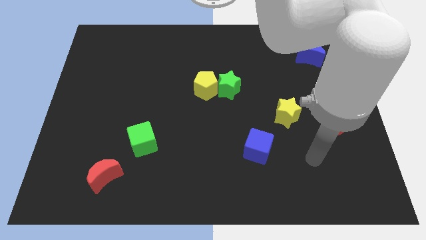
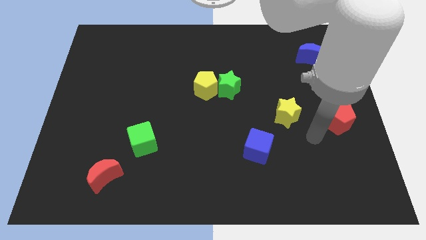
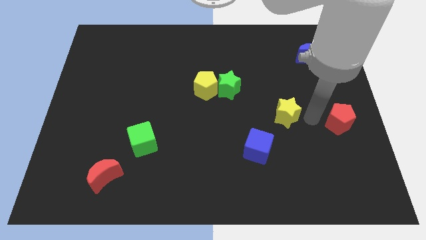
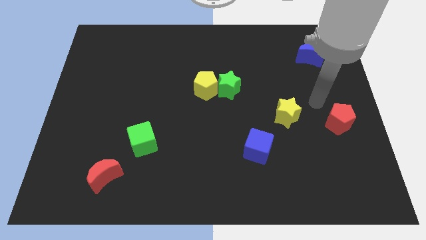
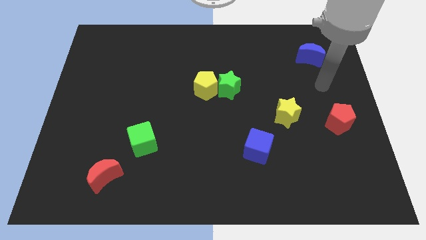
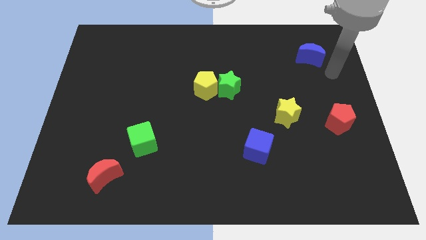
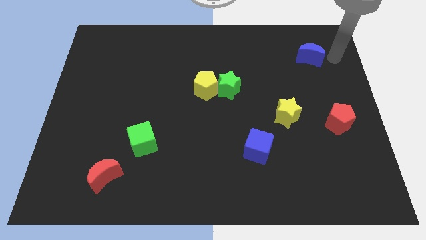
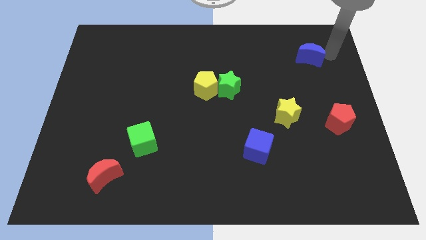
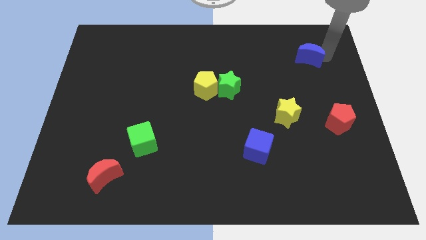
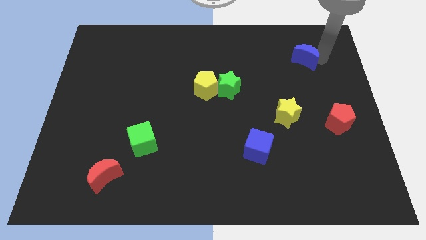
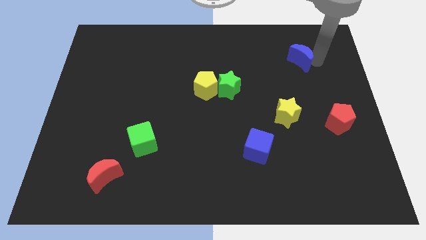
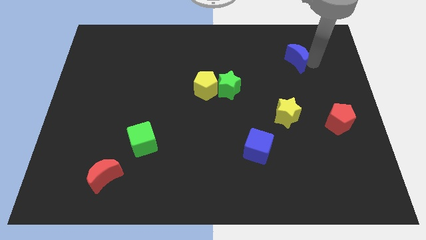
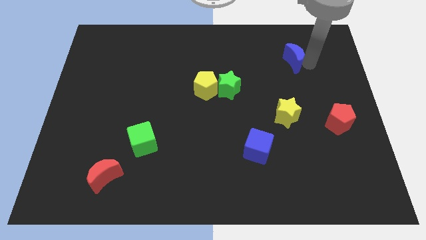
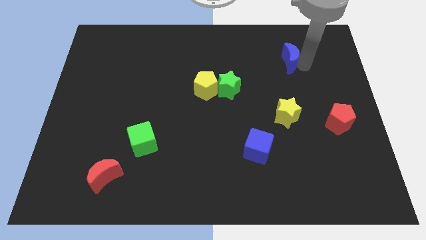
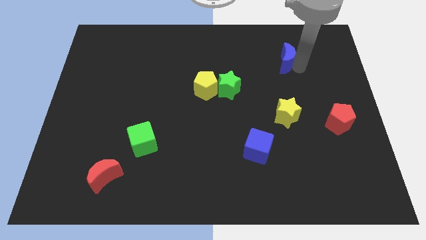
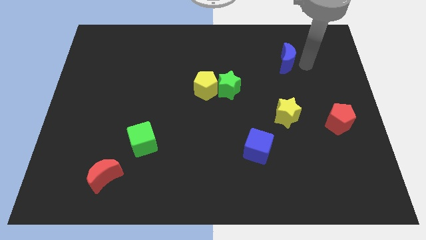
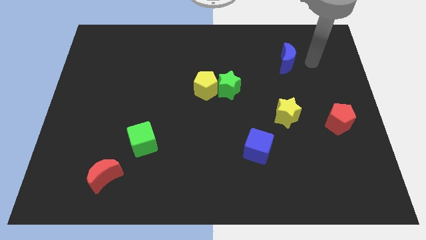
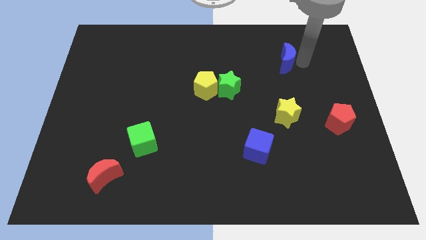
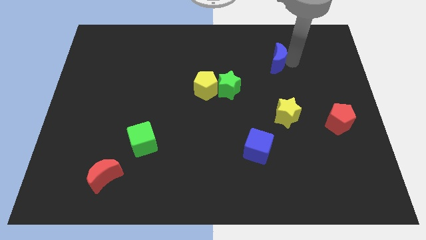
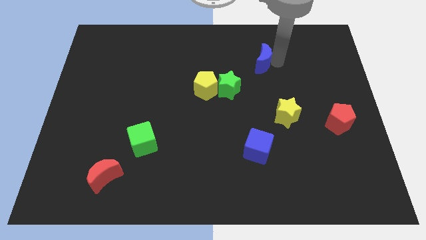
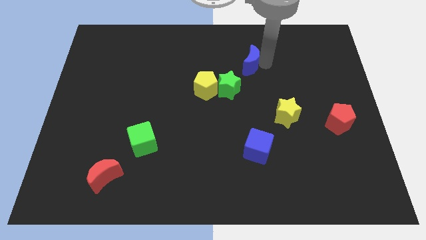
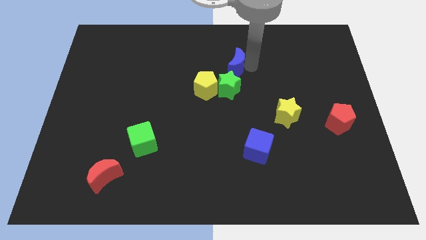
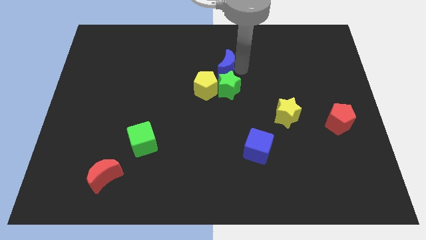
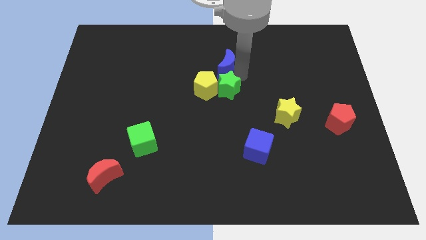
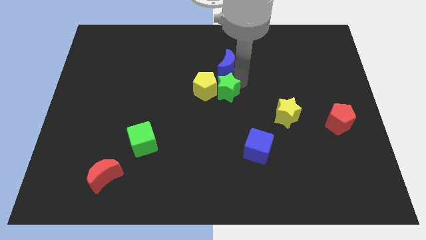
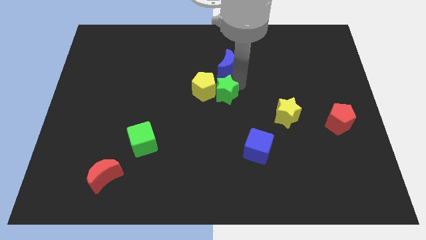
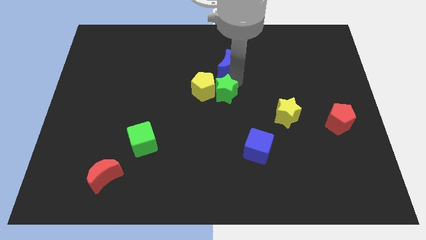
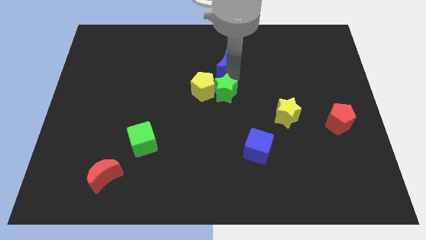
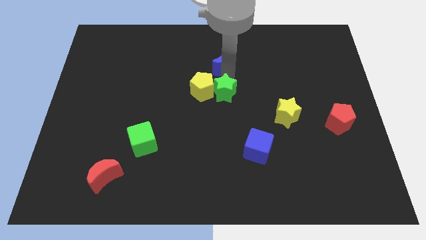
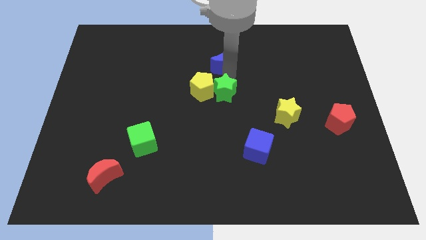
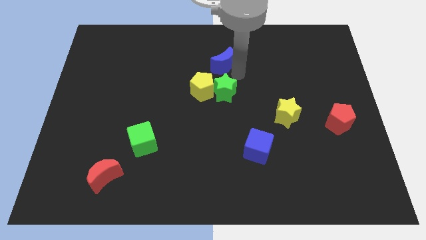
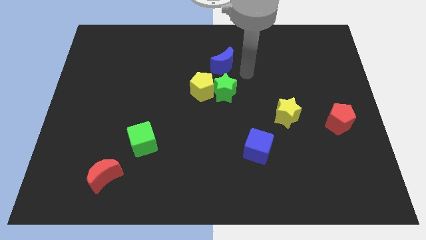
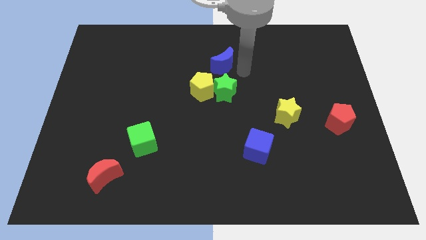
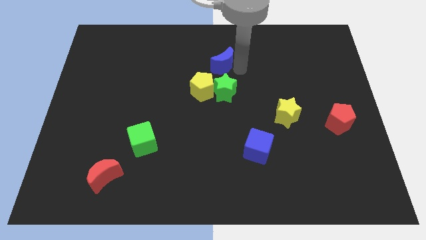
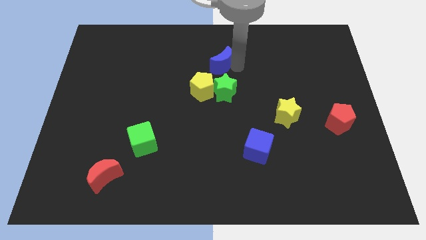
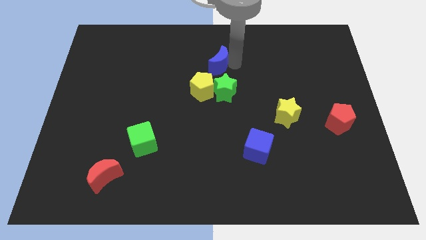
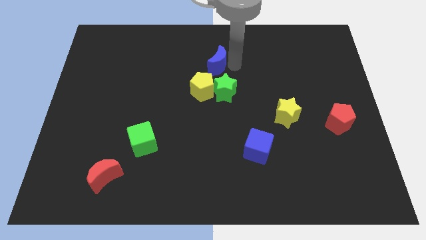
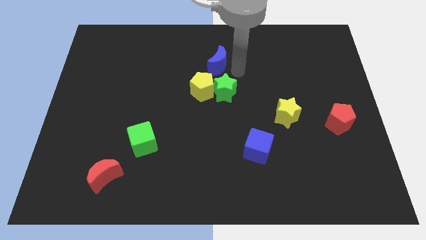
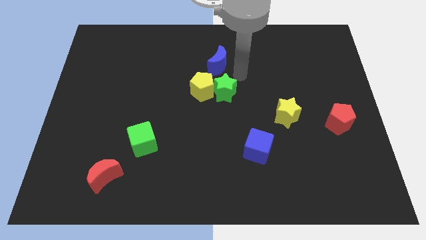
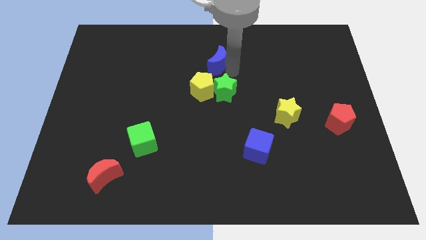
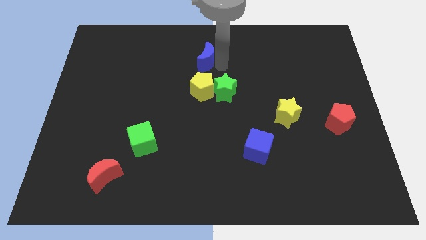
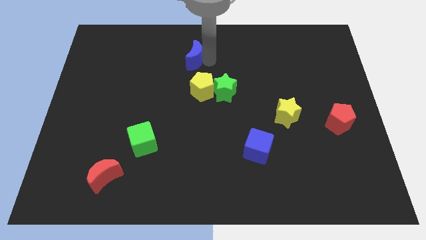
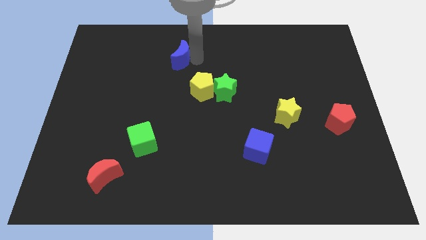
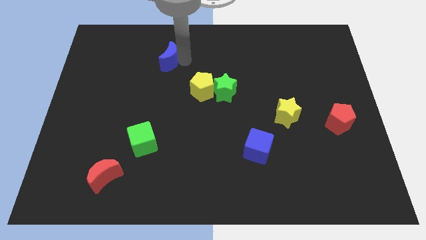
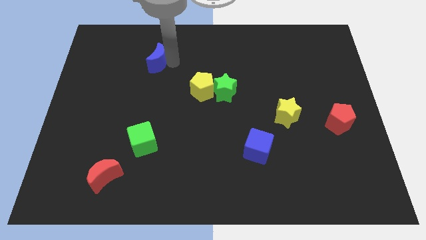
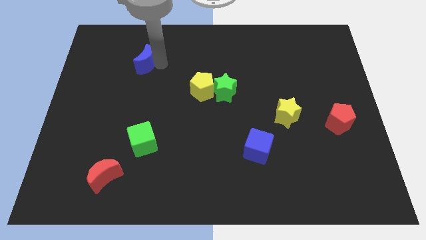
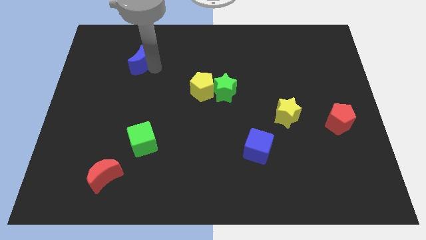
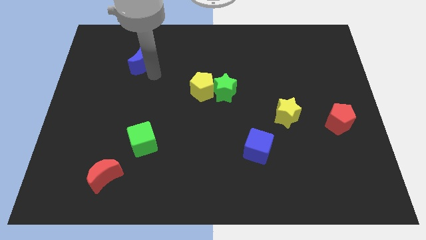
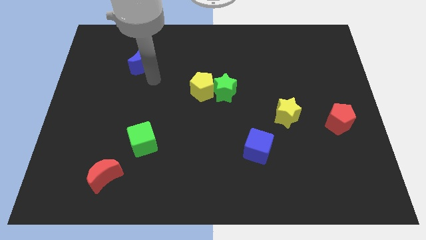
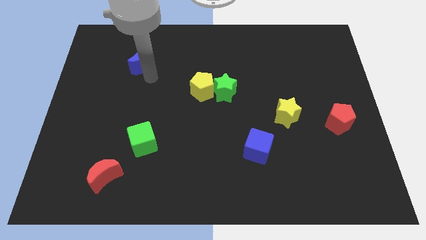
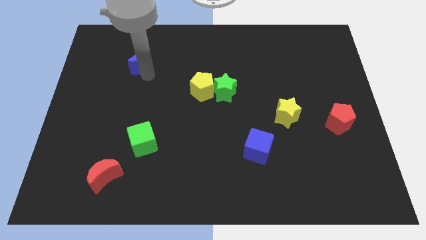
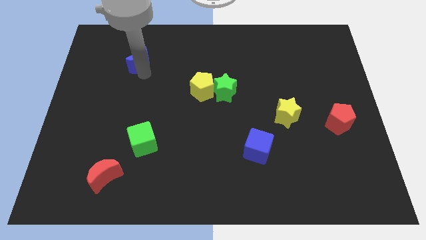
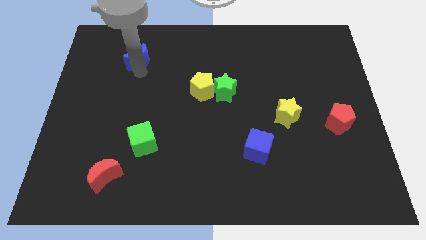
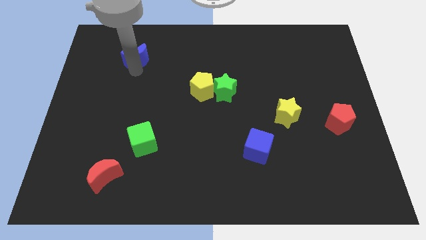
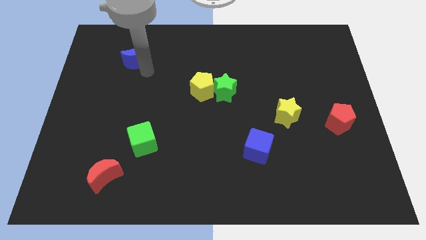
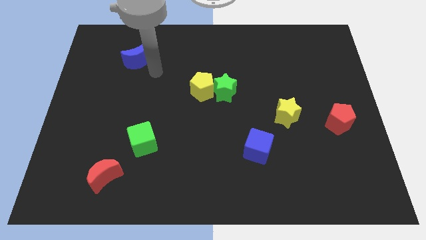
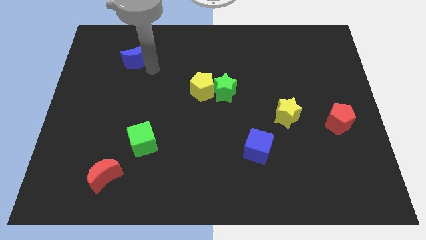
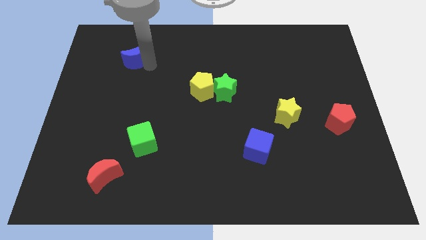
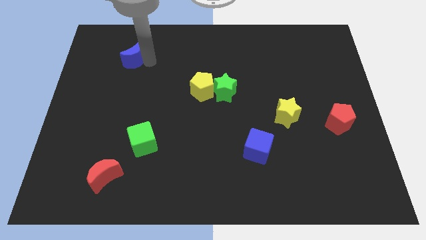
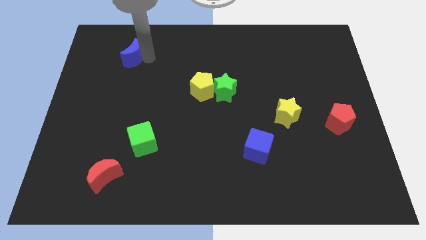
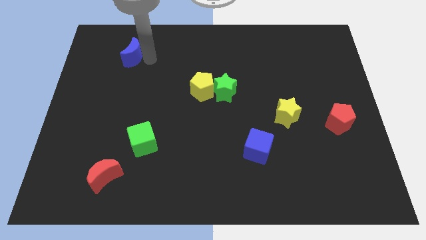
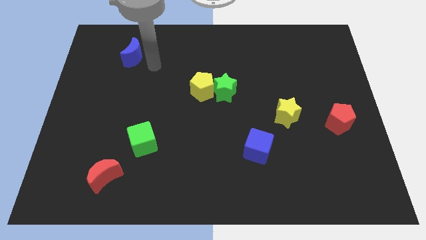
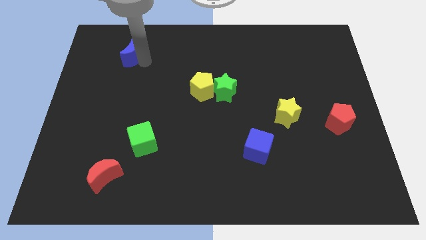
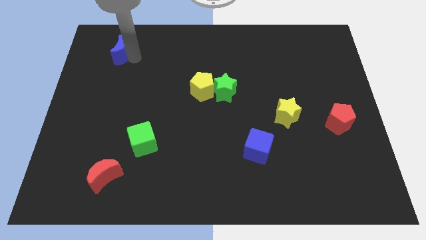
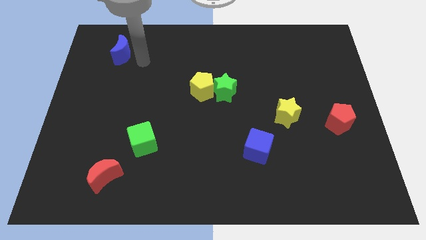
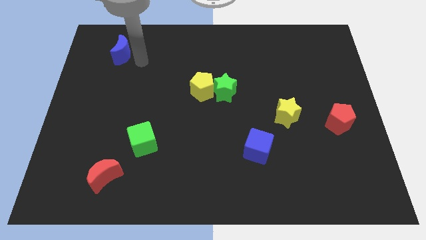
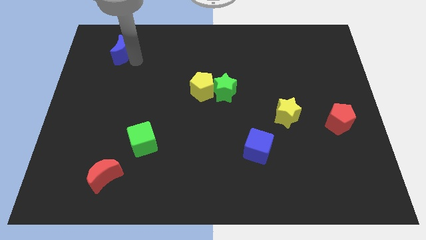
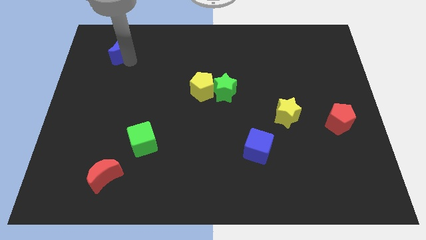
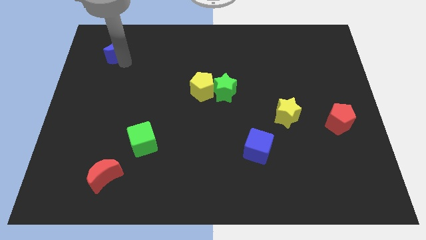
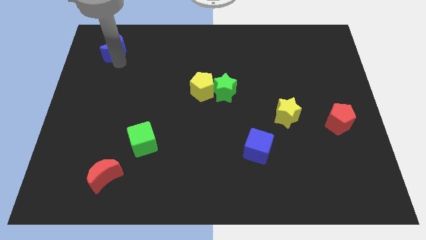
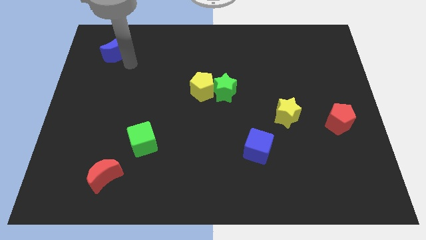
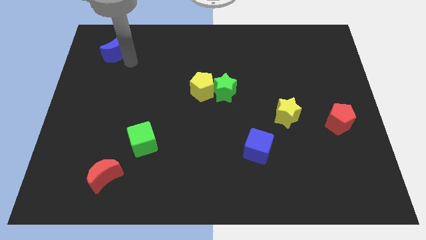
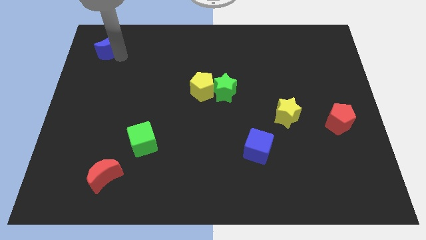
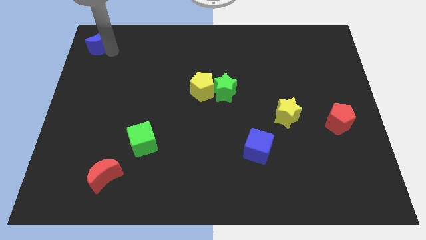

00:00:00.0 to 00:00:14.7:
move the blue moon to the top left of the board

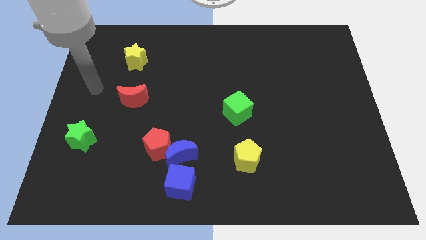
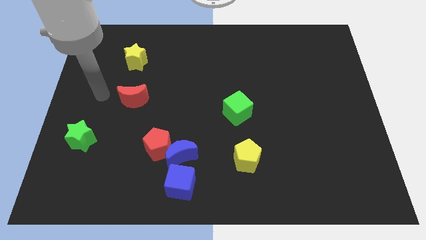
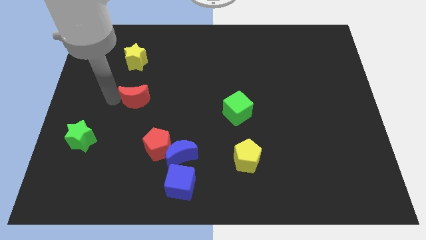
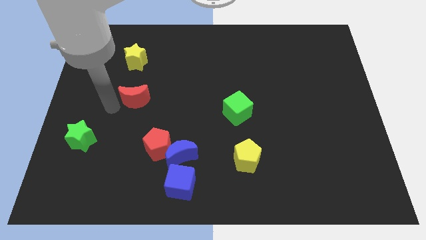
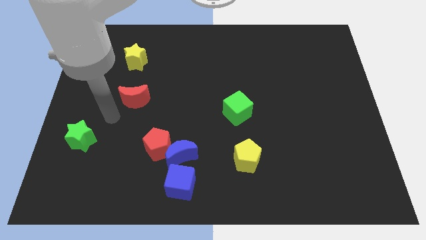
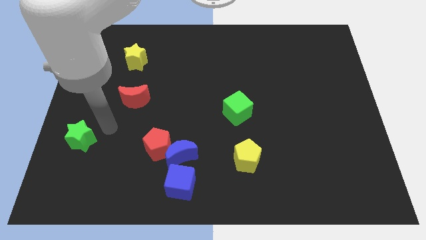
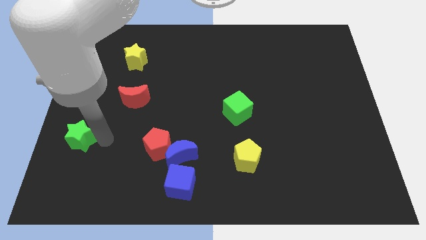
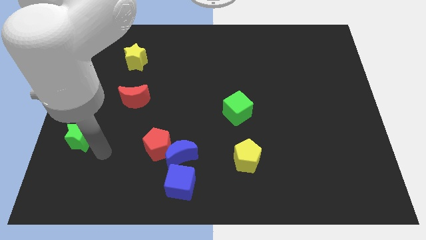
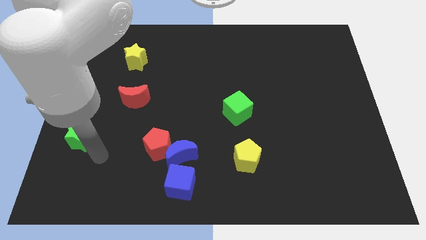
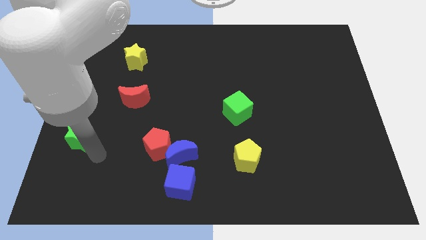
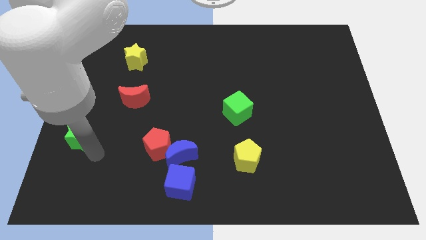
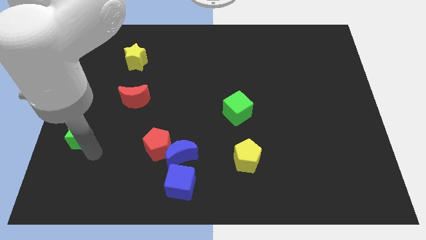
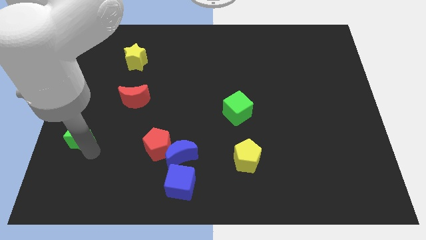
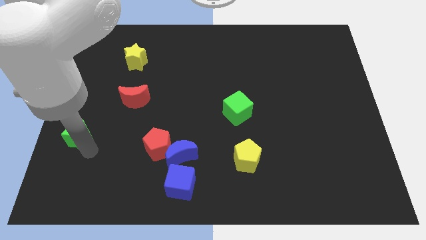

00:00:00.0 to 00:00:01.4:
push the green star to the left side
